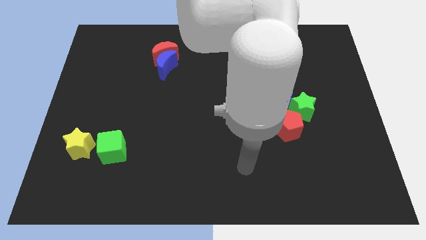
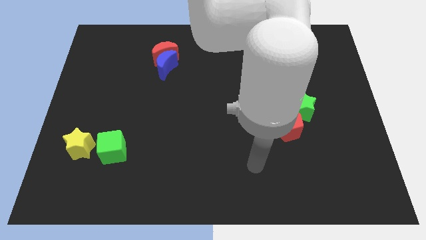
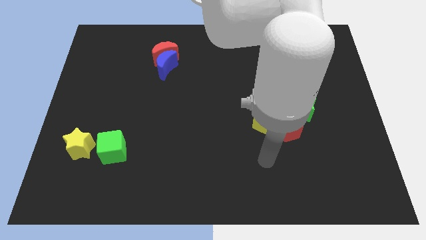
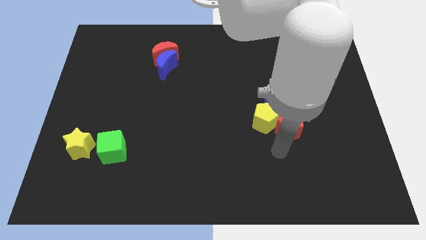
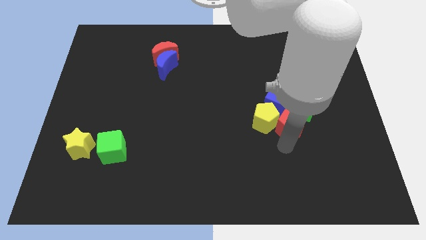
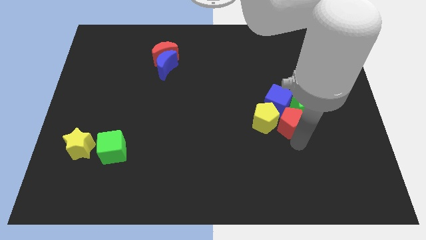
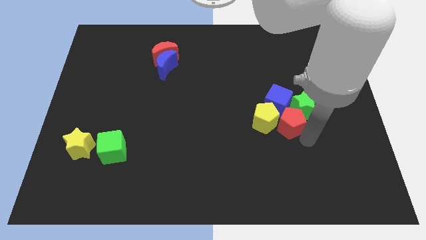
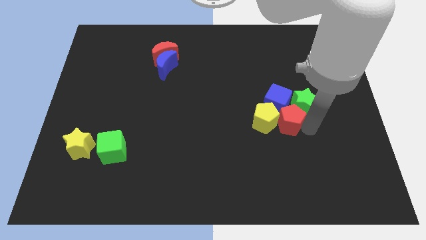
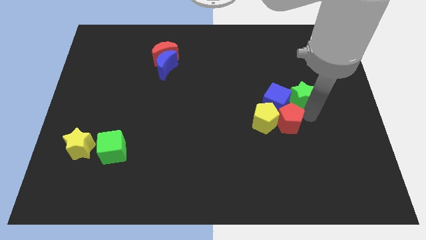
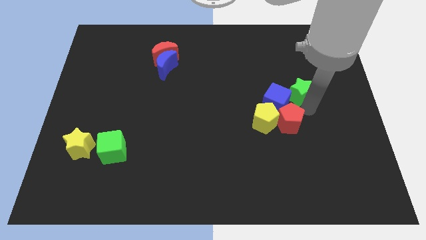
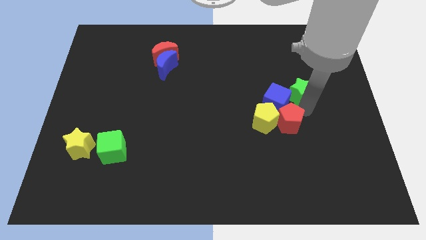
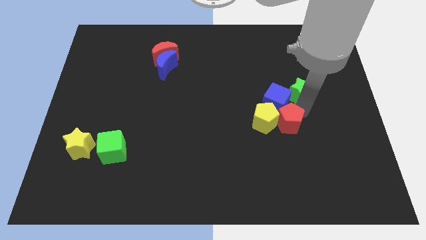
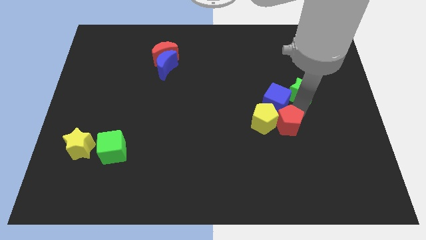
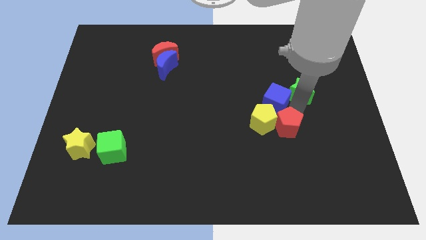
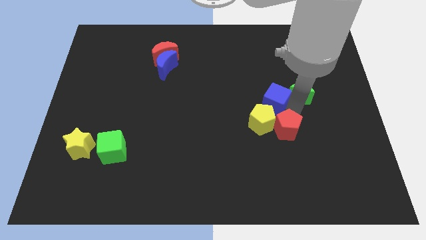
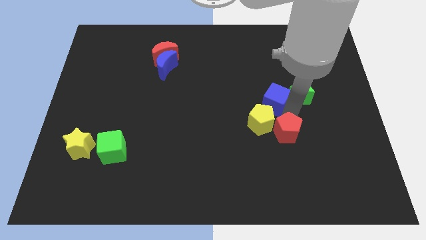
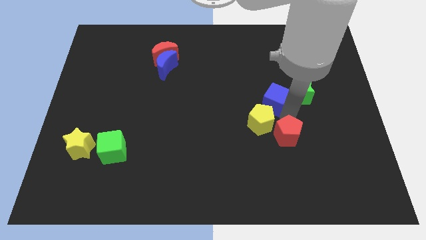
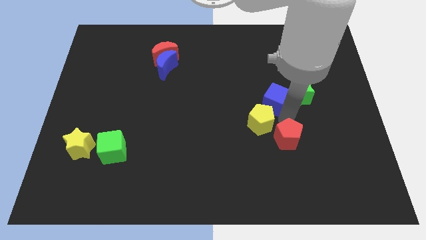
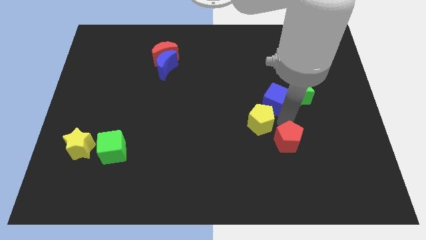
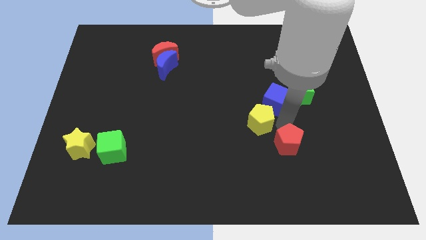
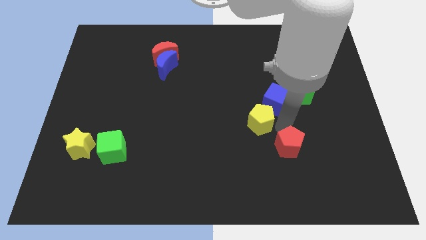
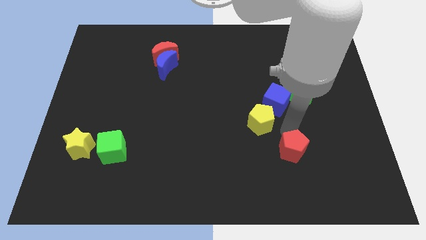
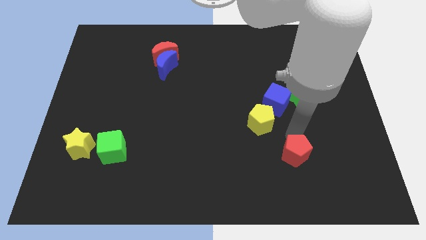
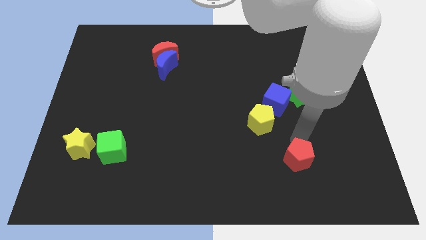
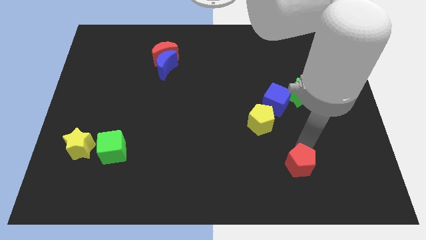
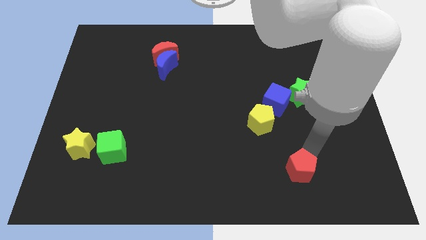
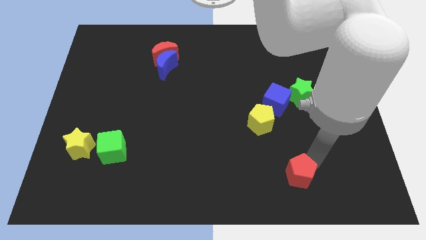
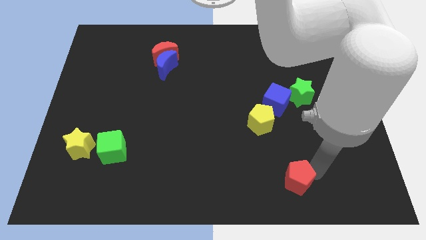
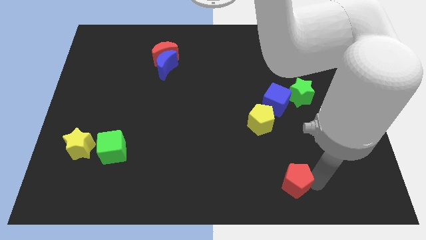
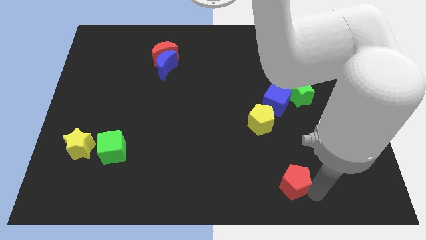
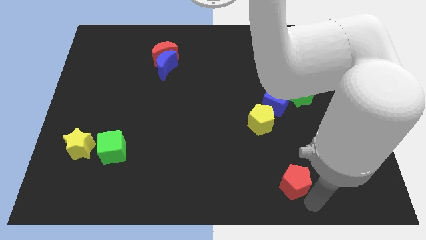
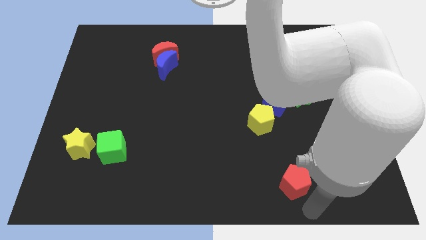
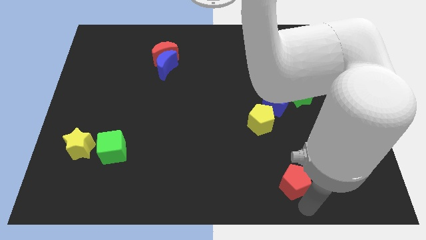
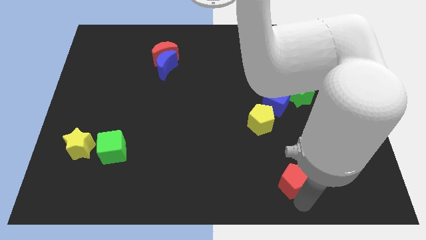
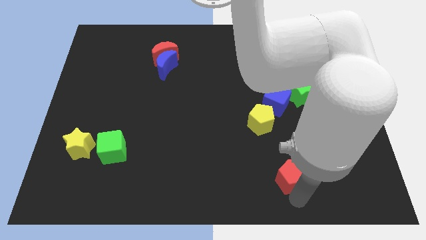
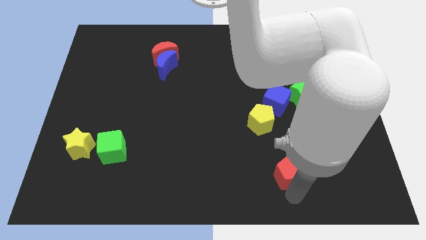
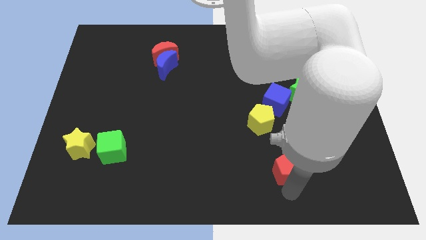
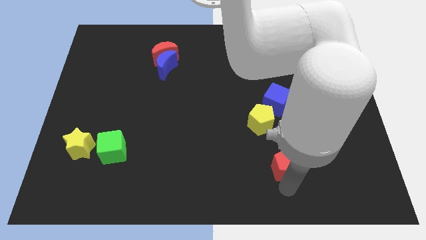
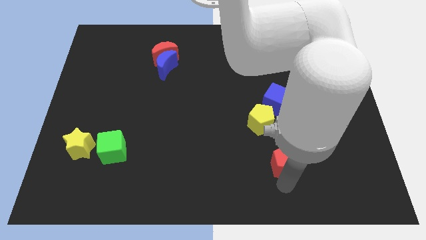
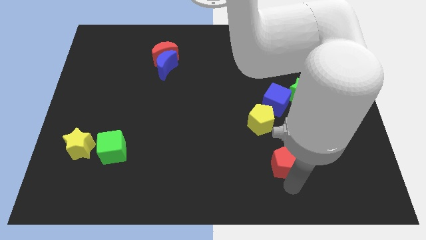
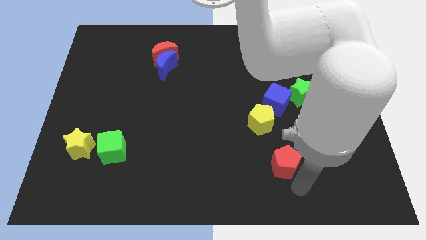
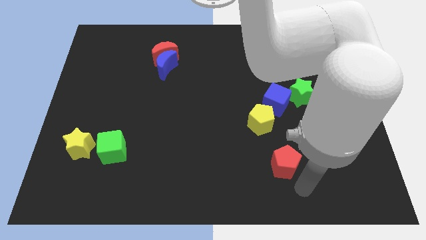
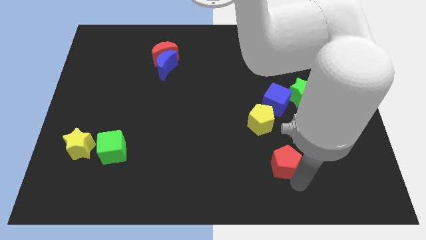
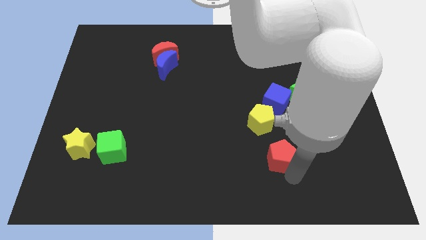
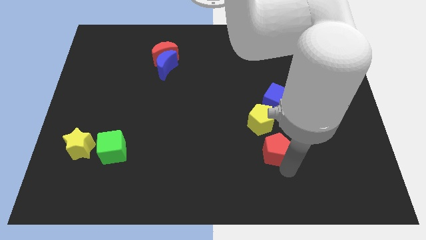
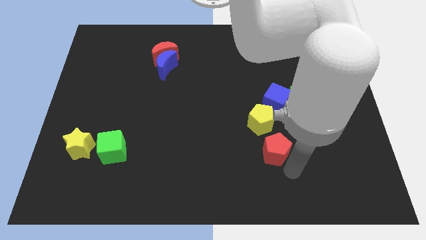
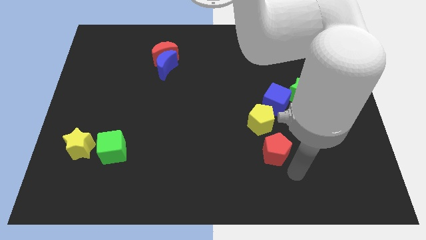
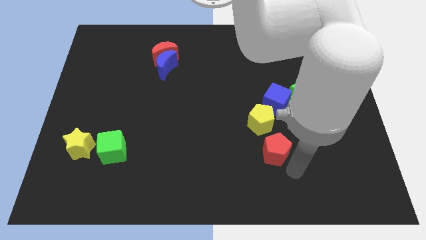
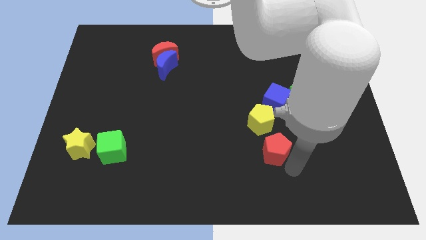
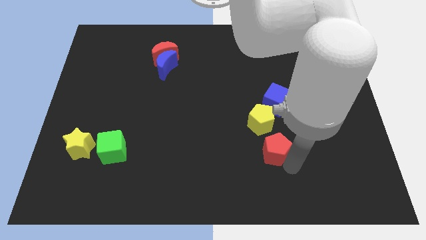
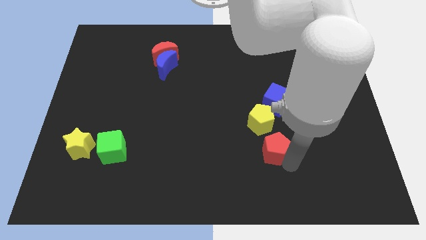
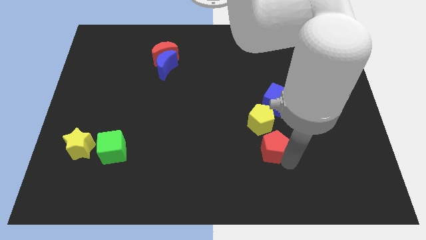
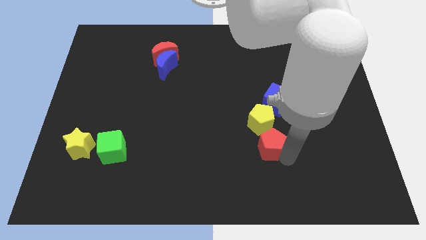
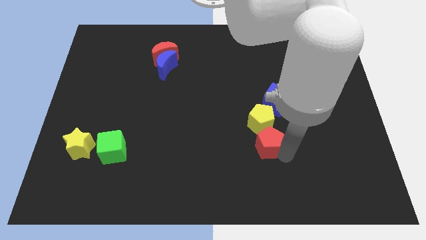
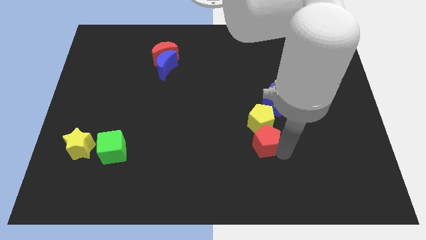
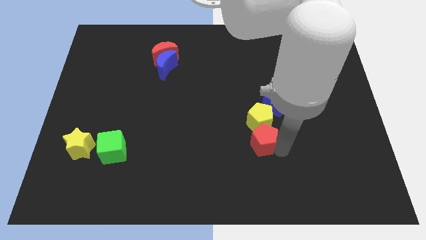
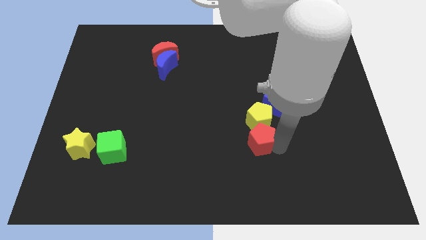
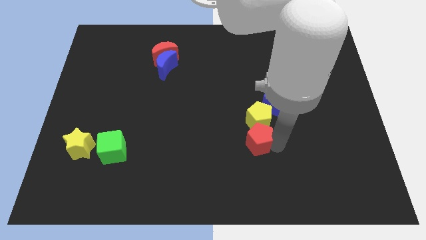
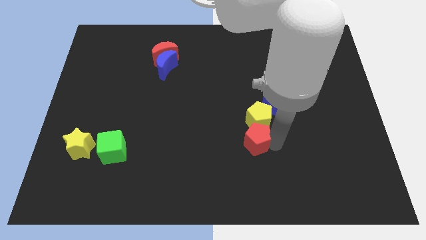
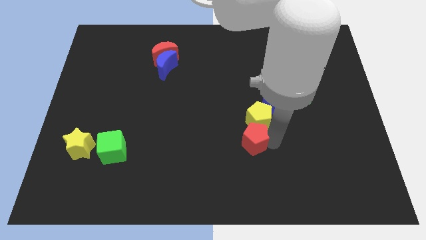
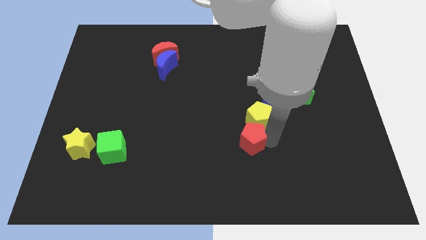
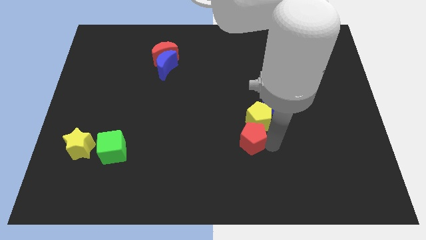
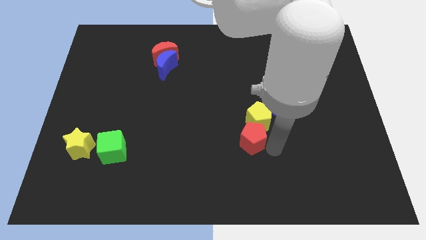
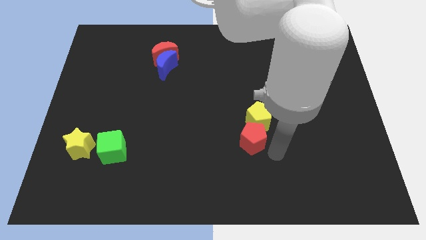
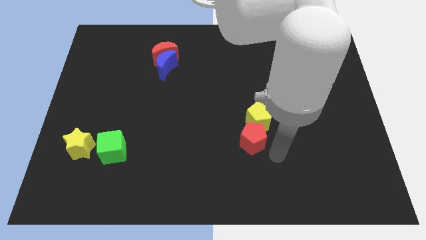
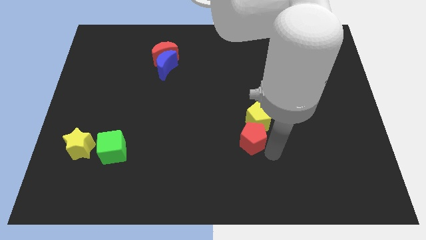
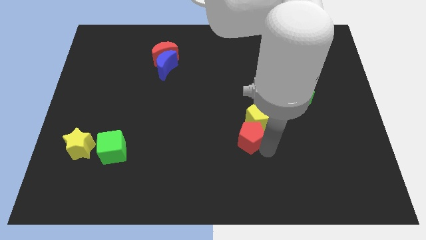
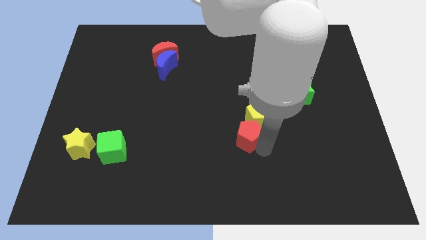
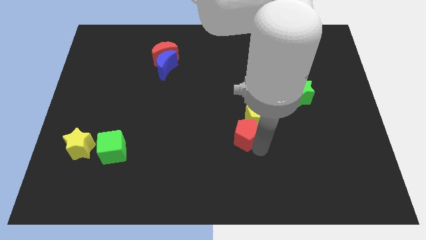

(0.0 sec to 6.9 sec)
put the red pentagon to the middle of the board

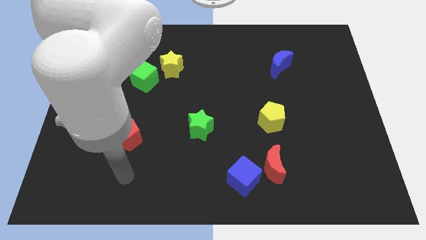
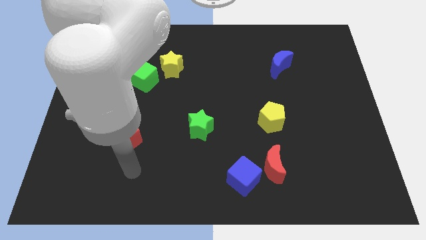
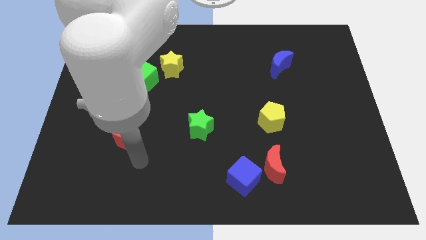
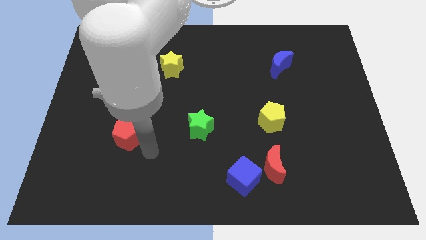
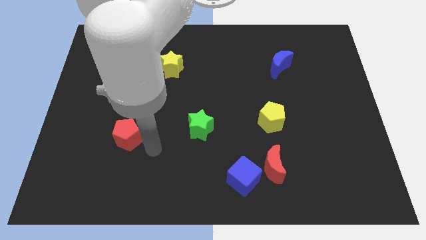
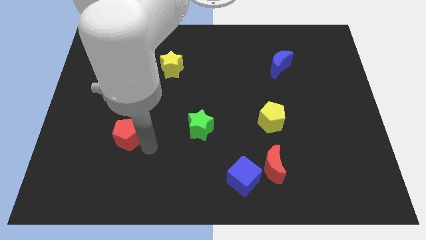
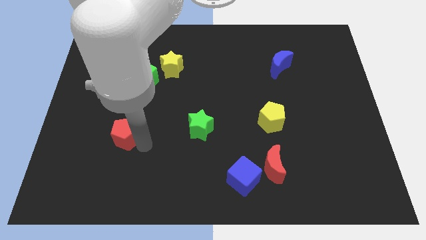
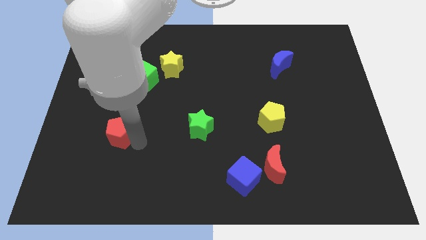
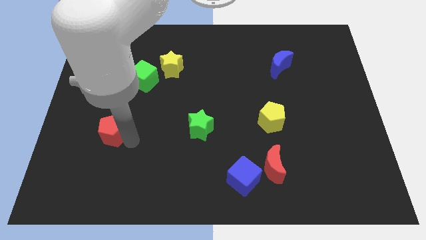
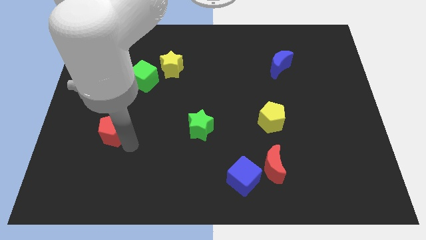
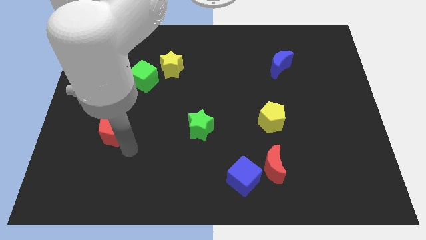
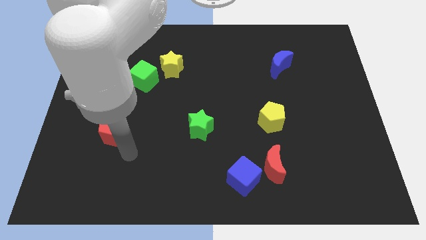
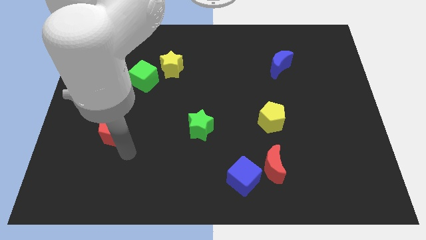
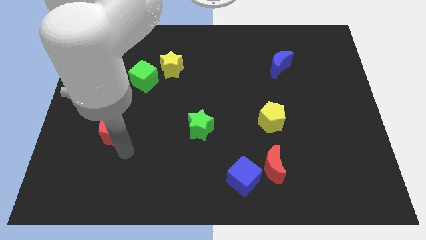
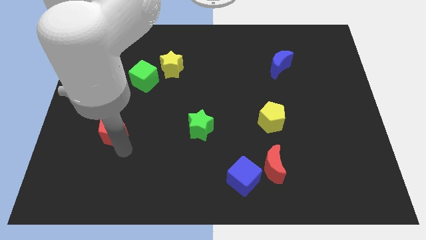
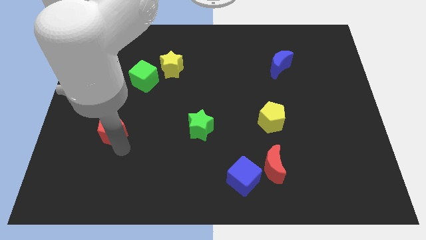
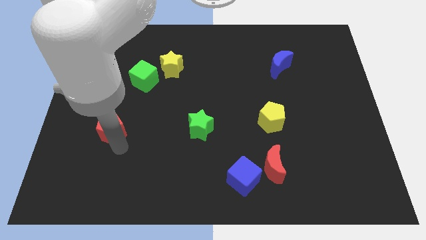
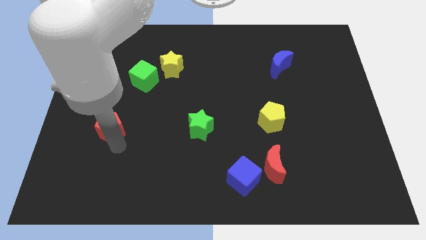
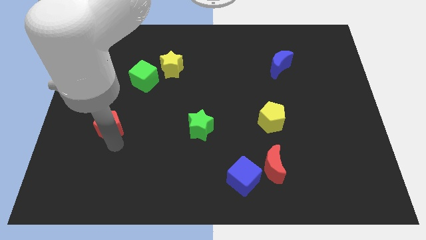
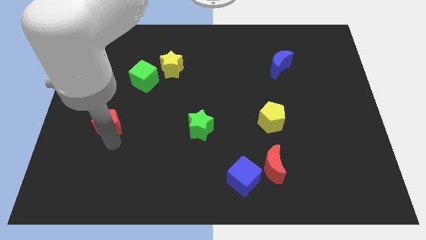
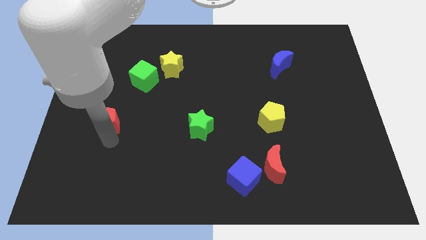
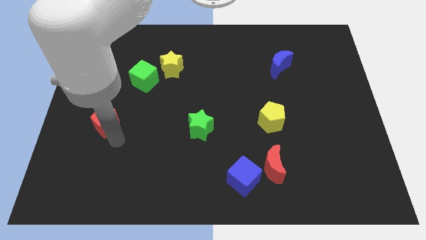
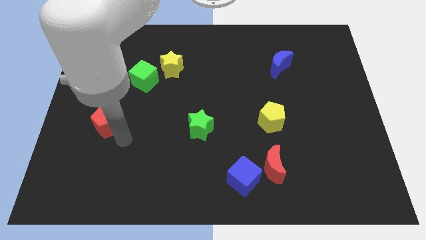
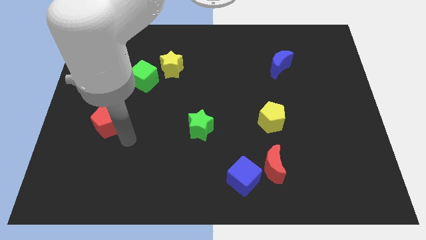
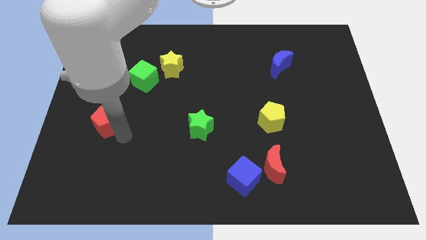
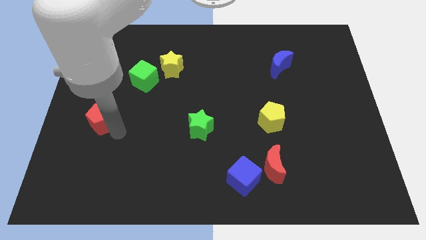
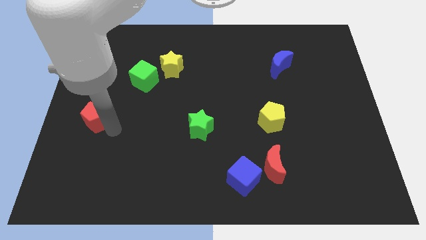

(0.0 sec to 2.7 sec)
slide the red pentagon to the left side
